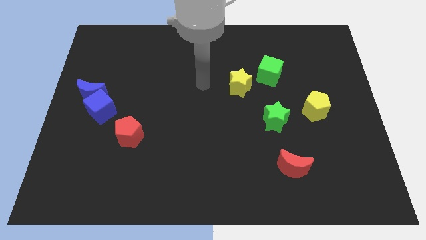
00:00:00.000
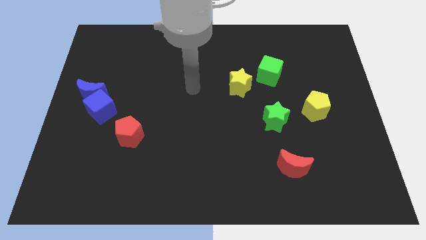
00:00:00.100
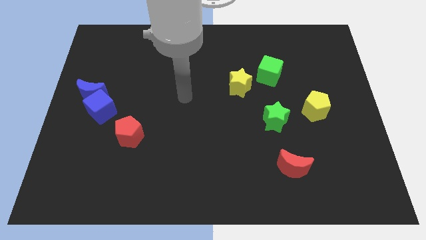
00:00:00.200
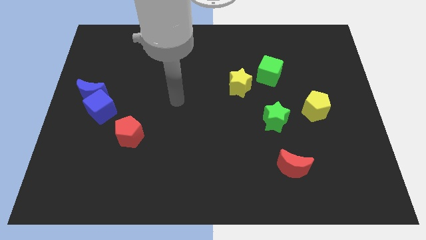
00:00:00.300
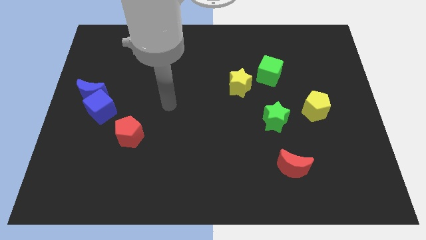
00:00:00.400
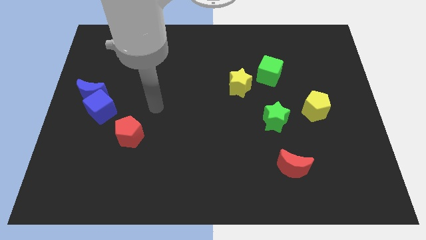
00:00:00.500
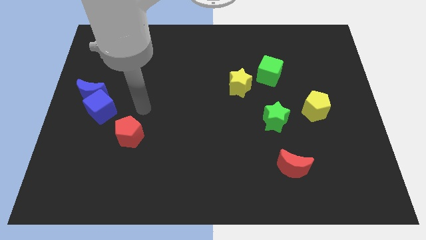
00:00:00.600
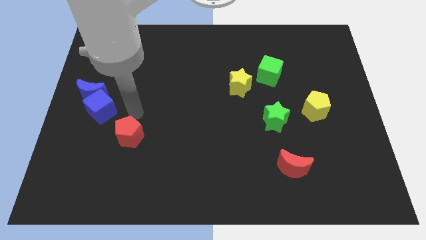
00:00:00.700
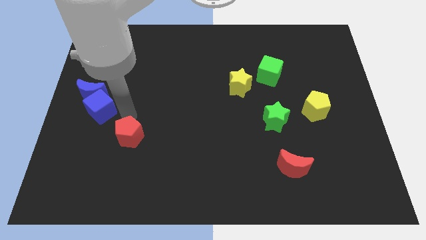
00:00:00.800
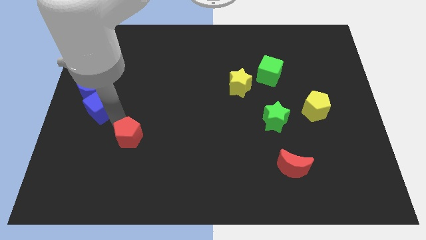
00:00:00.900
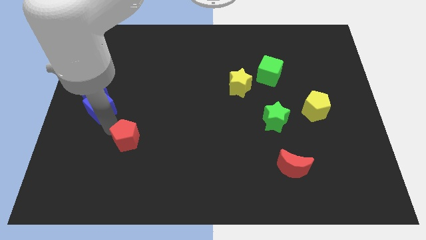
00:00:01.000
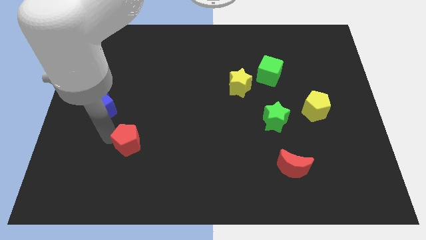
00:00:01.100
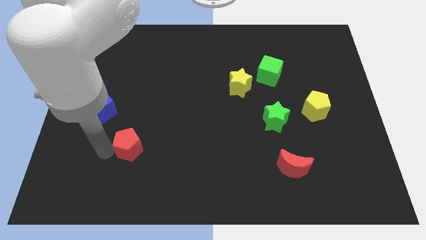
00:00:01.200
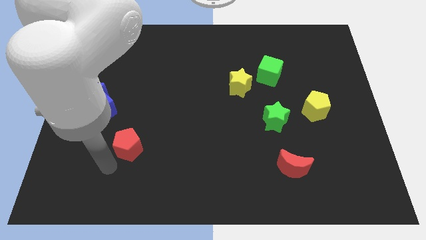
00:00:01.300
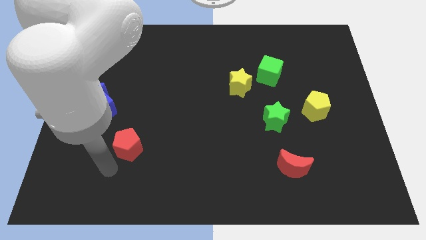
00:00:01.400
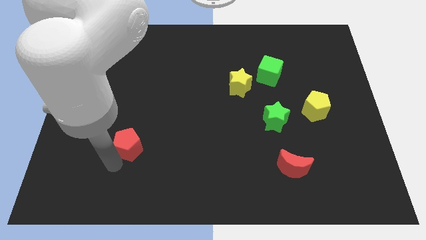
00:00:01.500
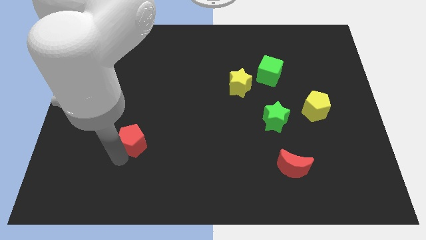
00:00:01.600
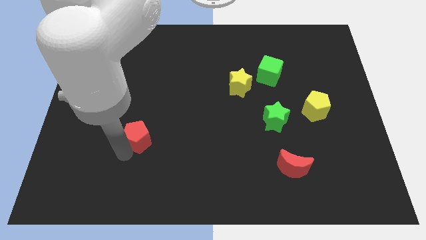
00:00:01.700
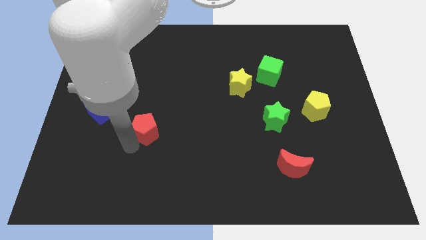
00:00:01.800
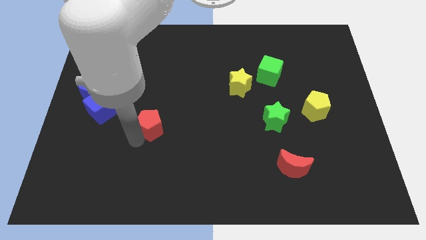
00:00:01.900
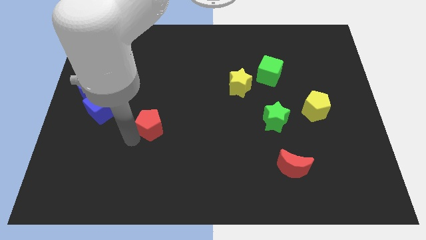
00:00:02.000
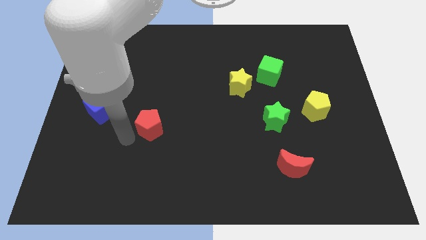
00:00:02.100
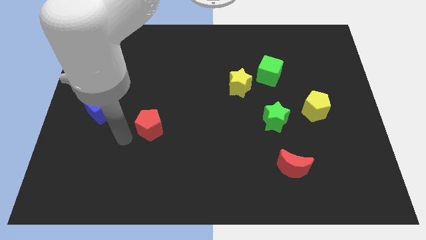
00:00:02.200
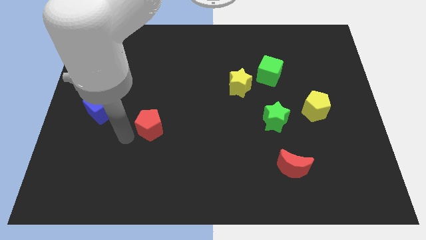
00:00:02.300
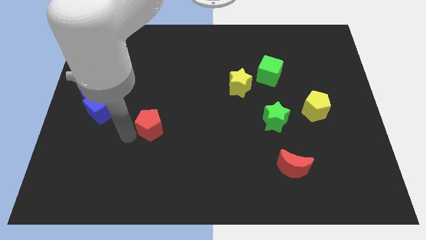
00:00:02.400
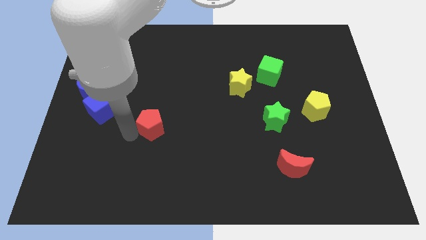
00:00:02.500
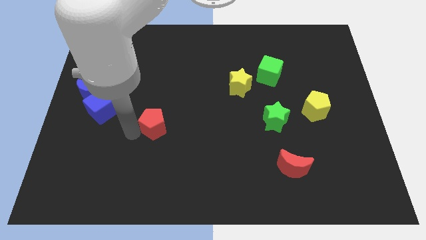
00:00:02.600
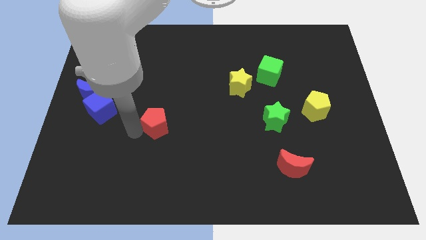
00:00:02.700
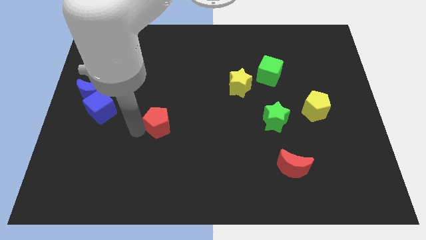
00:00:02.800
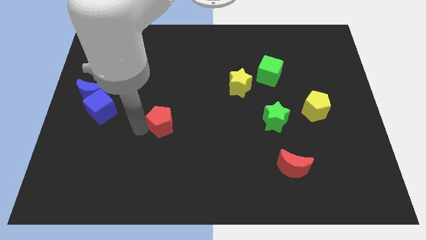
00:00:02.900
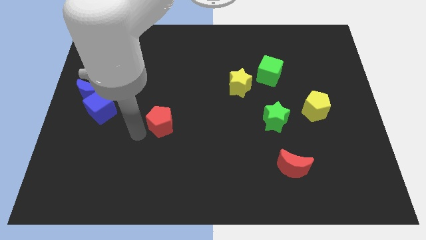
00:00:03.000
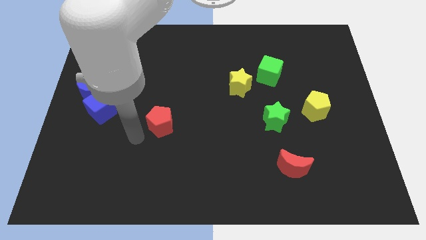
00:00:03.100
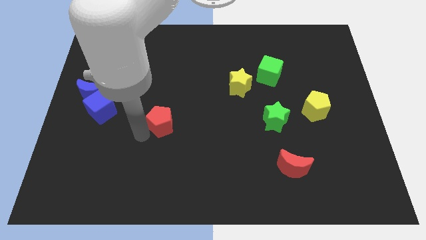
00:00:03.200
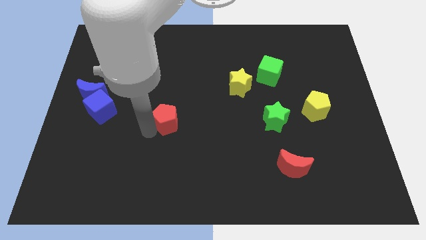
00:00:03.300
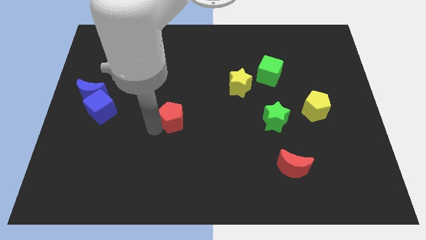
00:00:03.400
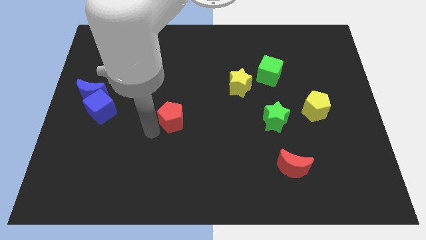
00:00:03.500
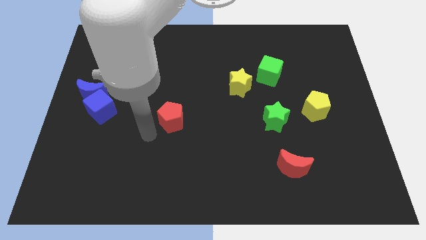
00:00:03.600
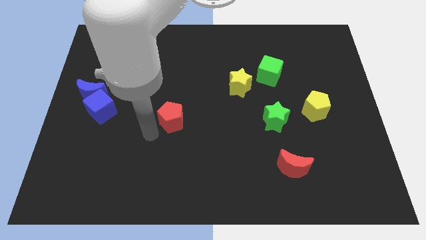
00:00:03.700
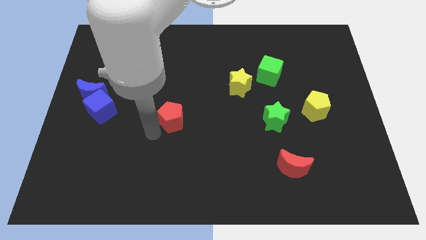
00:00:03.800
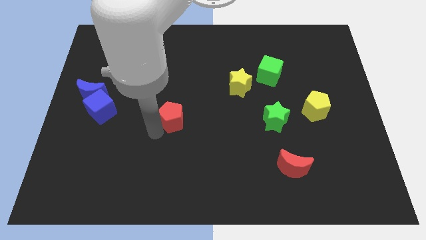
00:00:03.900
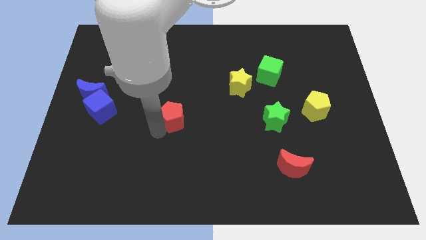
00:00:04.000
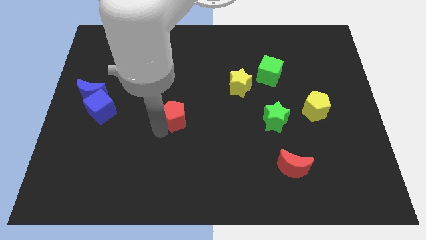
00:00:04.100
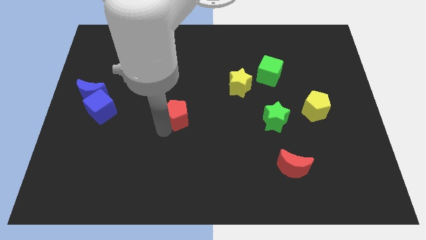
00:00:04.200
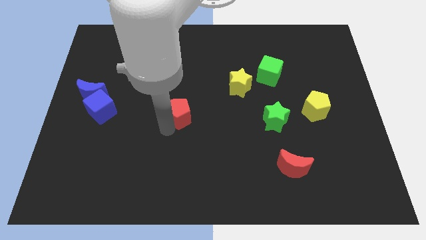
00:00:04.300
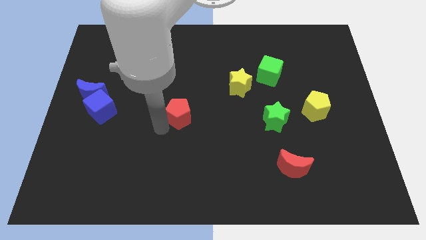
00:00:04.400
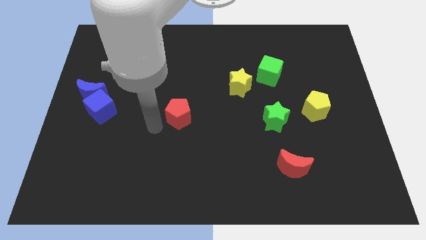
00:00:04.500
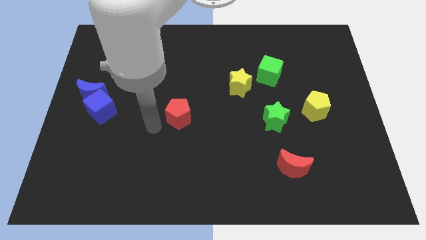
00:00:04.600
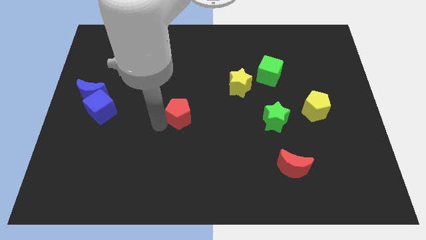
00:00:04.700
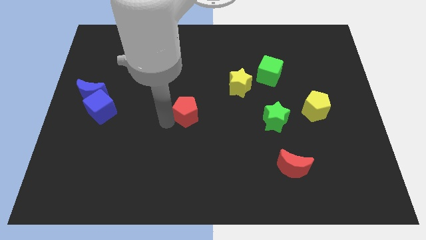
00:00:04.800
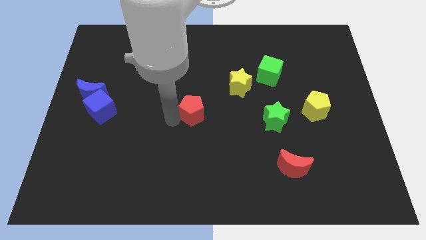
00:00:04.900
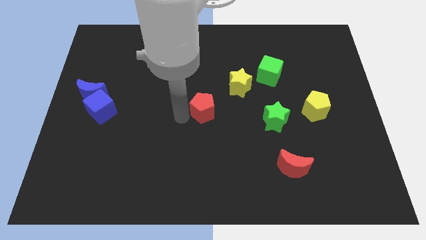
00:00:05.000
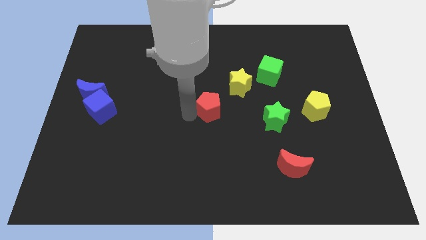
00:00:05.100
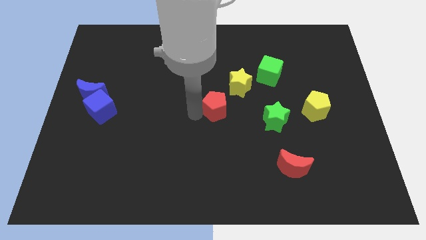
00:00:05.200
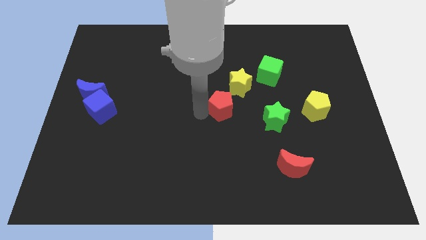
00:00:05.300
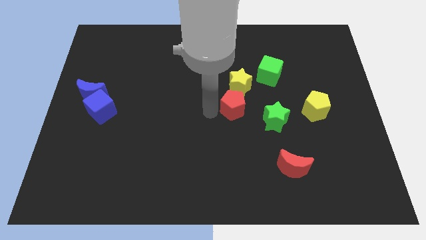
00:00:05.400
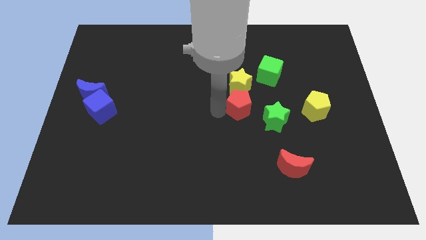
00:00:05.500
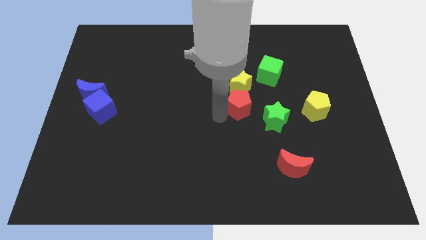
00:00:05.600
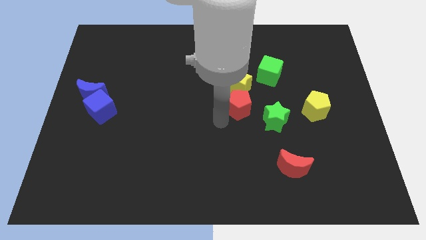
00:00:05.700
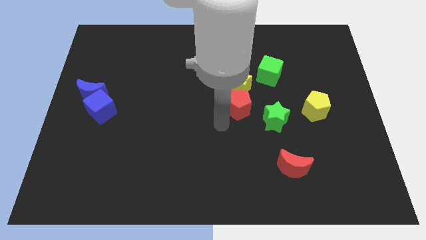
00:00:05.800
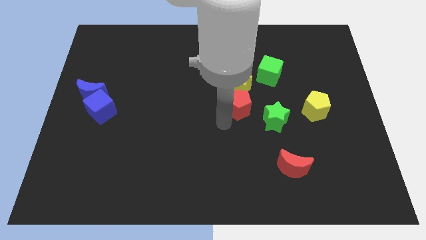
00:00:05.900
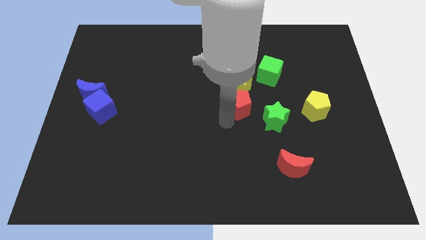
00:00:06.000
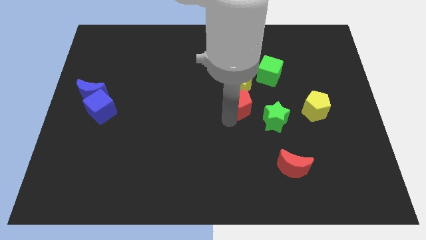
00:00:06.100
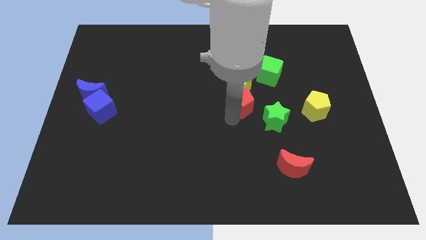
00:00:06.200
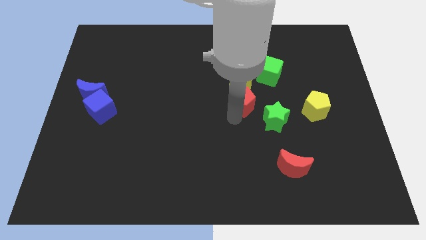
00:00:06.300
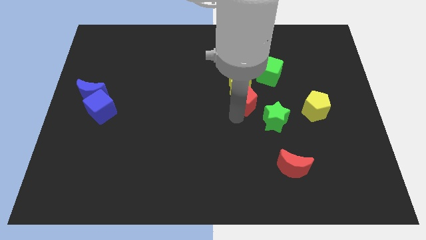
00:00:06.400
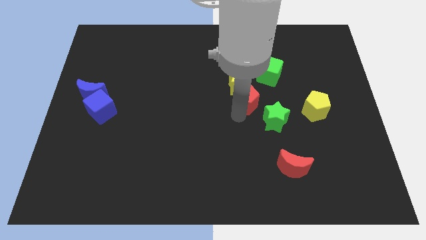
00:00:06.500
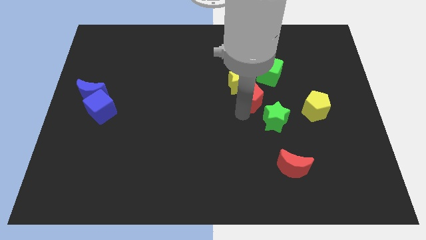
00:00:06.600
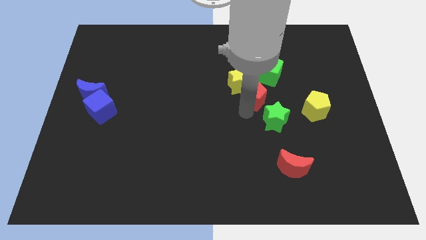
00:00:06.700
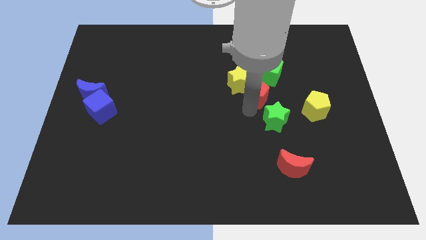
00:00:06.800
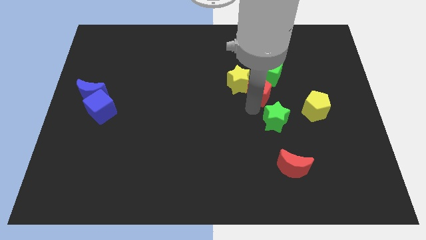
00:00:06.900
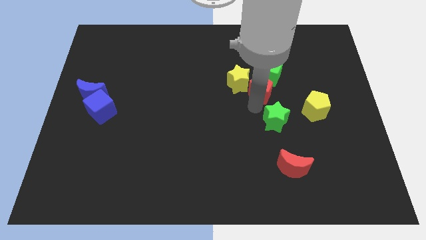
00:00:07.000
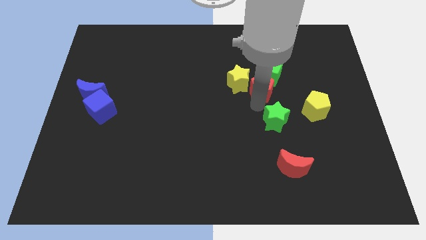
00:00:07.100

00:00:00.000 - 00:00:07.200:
push the red pentagon next to the green cube

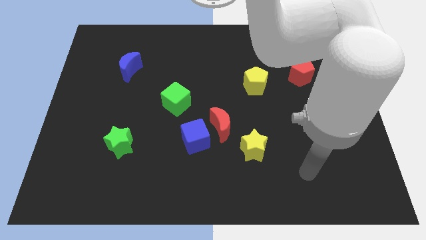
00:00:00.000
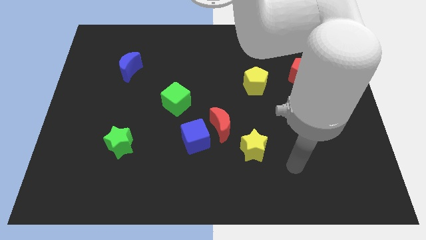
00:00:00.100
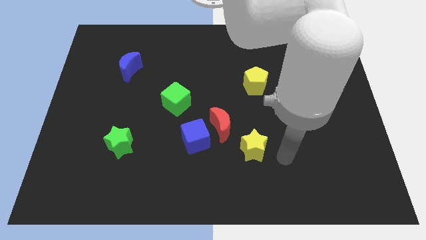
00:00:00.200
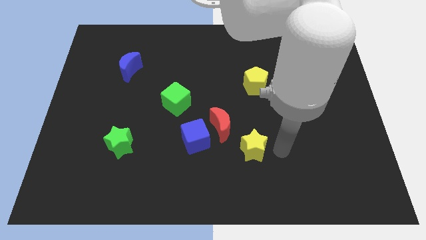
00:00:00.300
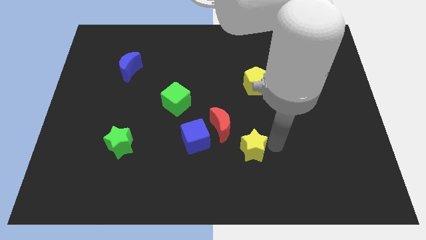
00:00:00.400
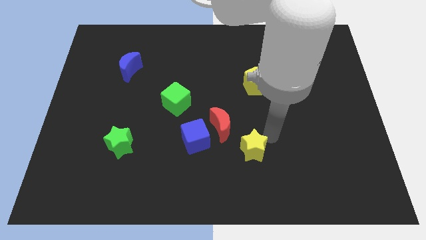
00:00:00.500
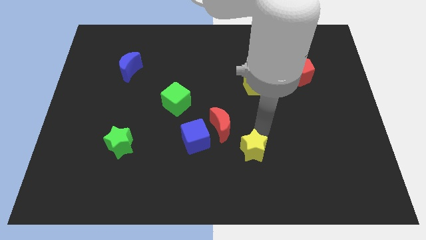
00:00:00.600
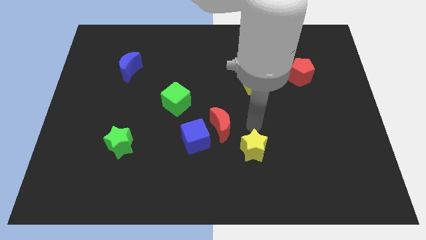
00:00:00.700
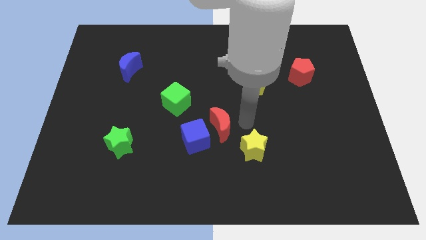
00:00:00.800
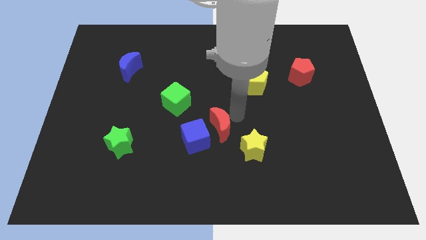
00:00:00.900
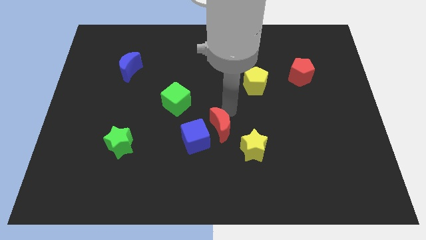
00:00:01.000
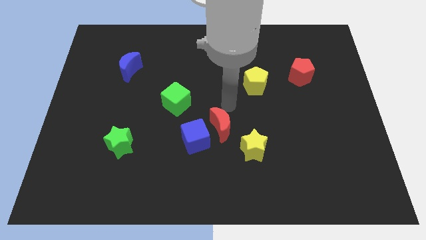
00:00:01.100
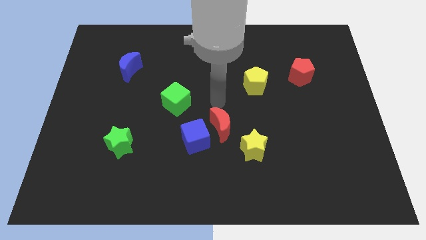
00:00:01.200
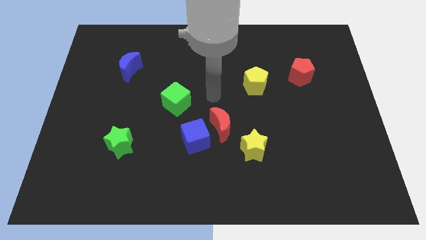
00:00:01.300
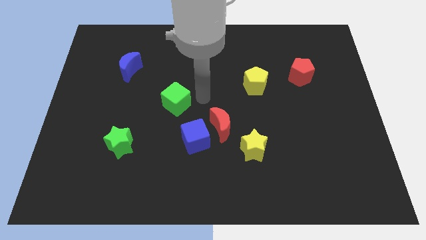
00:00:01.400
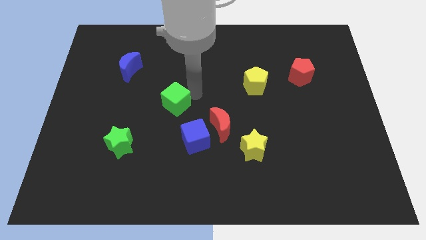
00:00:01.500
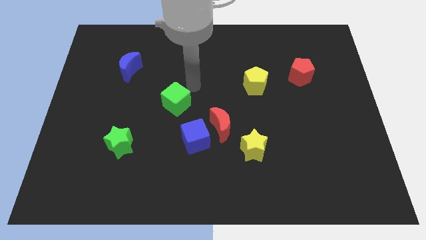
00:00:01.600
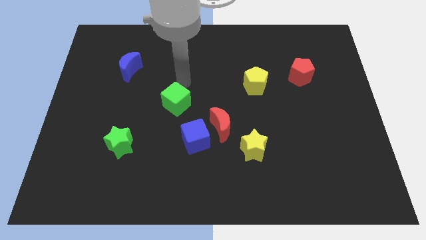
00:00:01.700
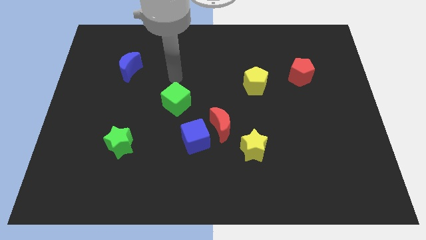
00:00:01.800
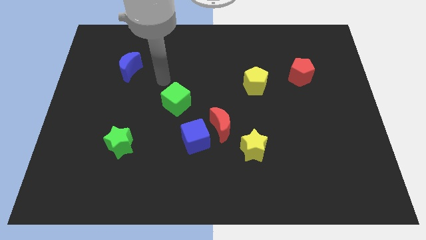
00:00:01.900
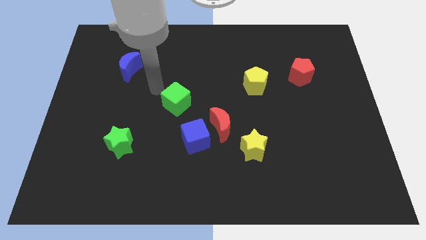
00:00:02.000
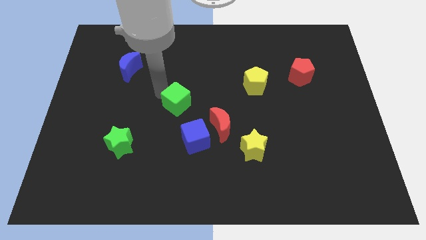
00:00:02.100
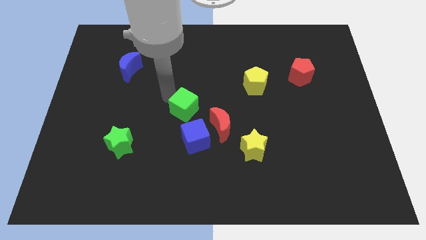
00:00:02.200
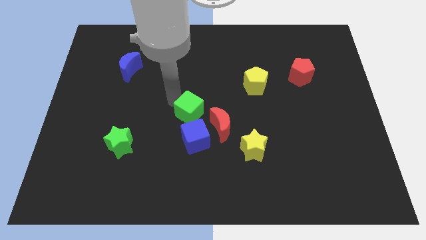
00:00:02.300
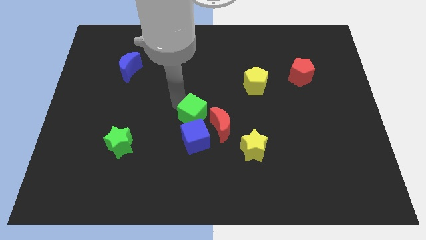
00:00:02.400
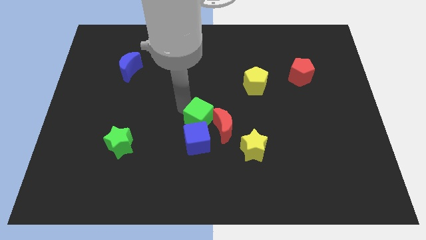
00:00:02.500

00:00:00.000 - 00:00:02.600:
slide the green cube to the red moon
